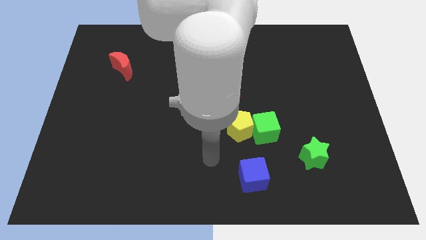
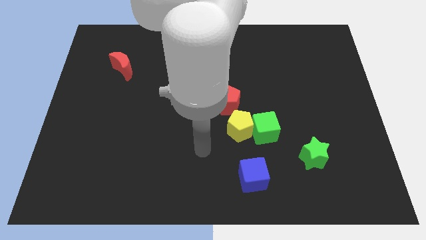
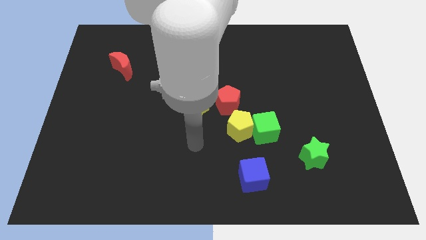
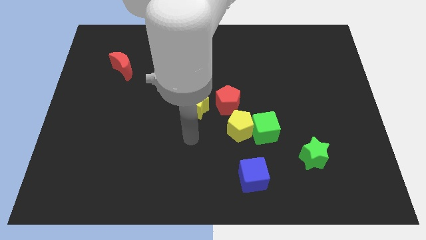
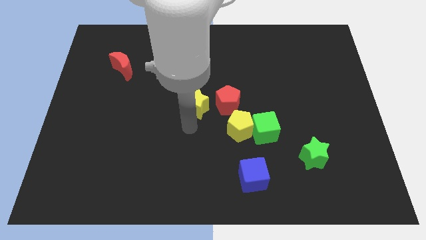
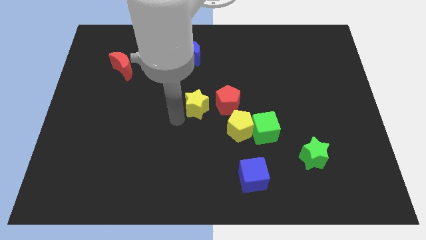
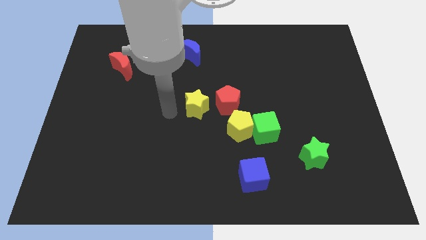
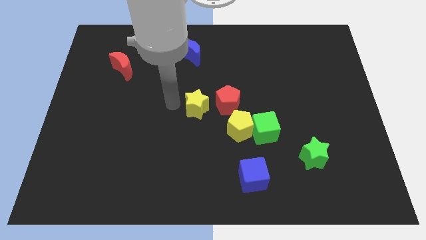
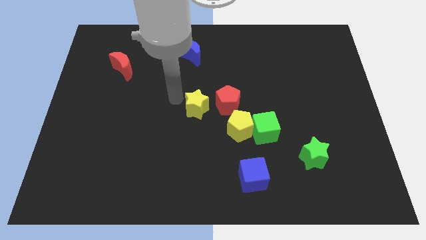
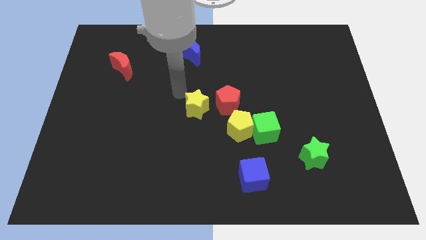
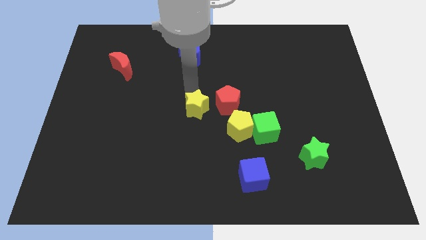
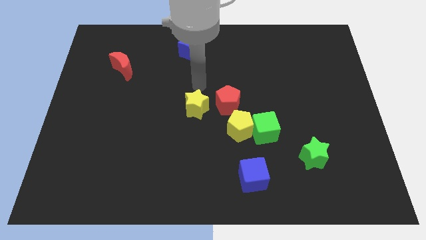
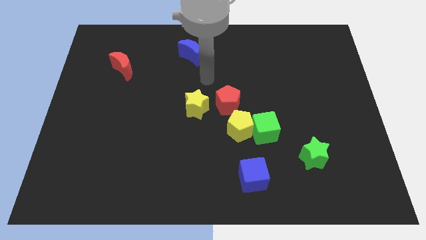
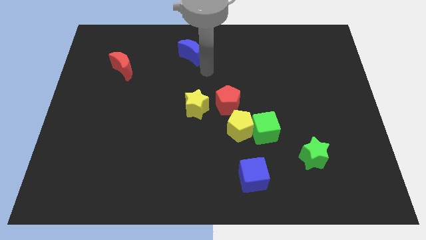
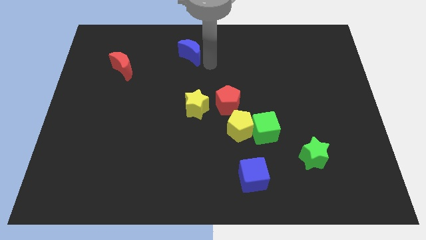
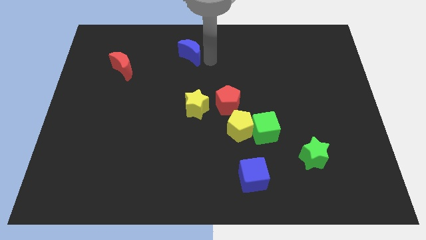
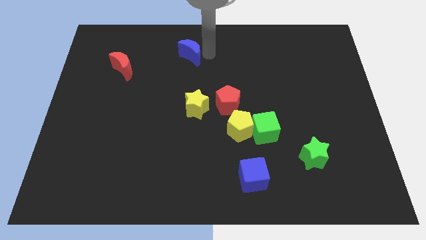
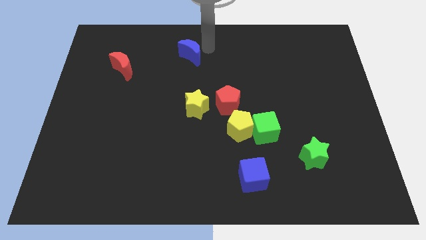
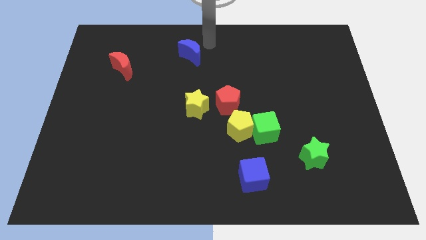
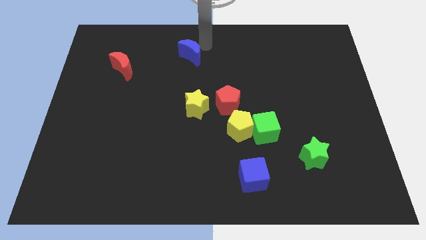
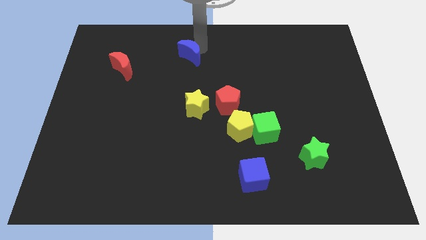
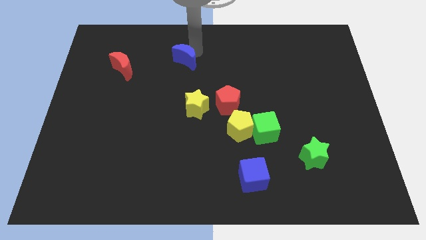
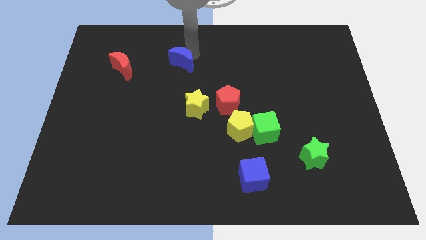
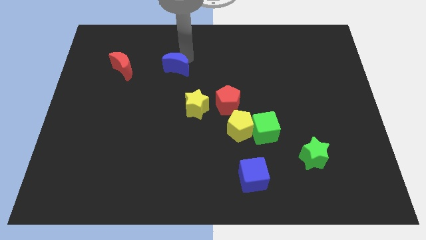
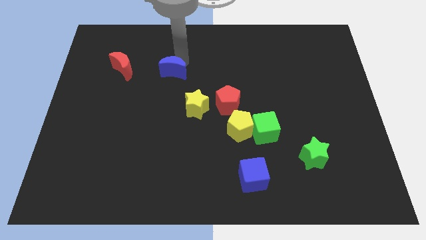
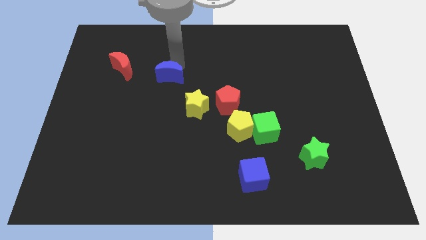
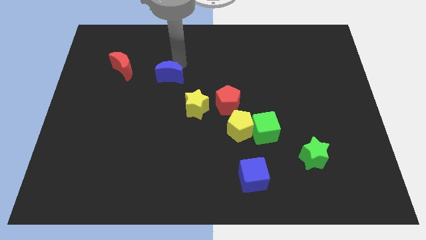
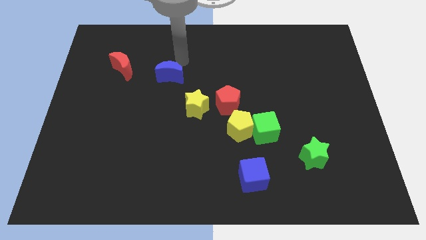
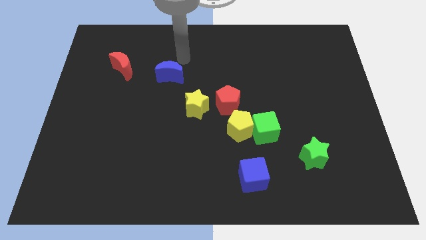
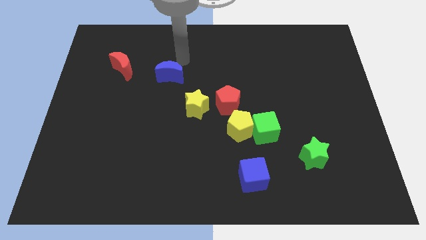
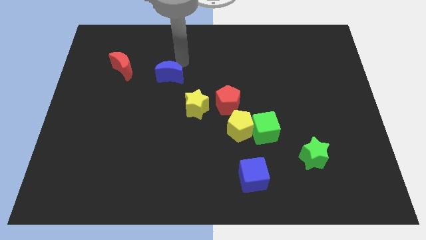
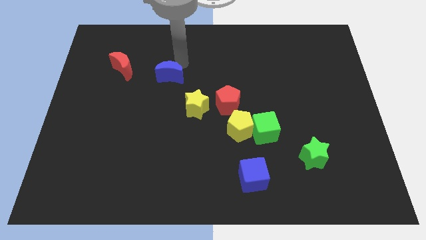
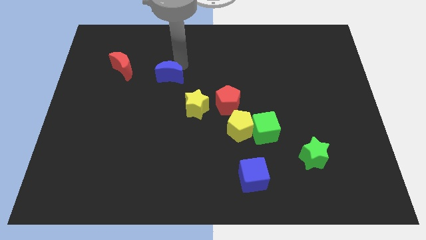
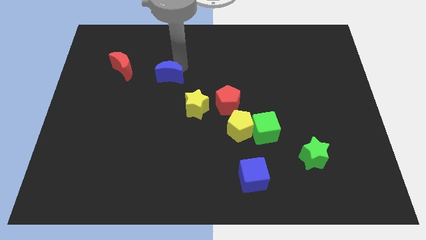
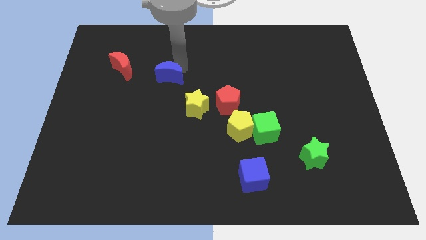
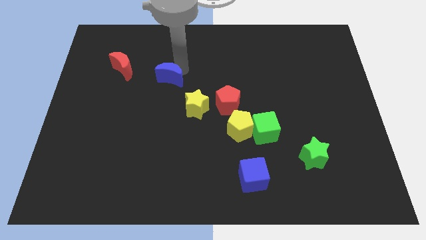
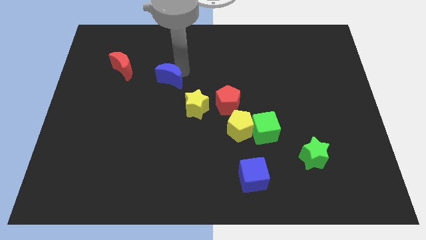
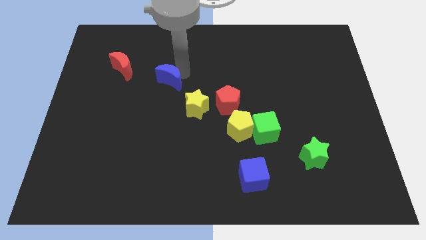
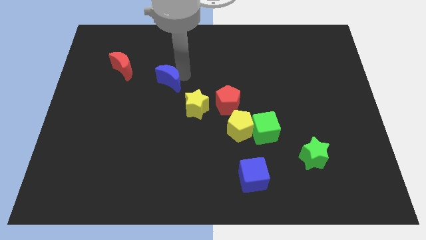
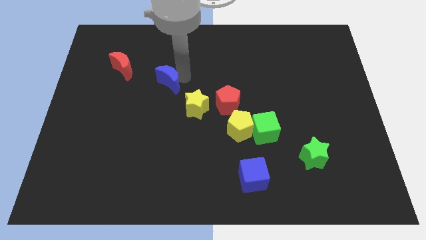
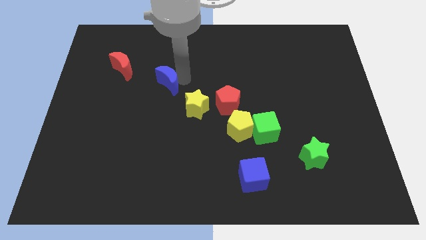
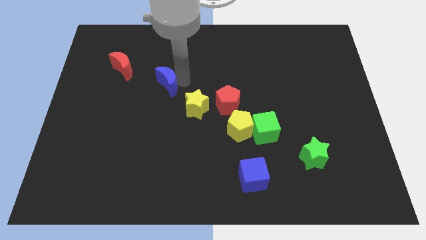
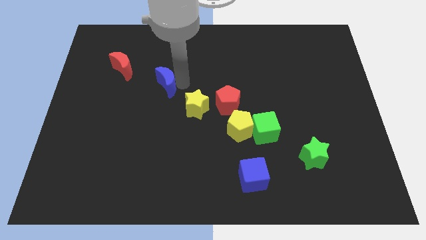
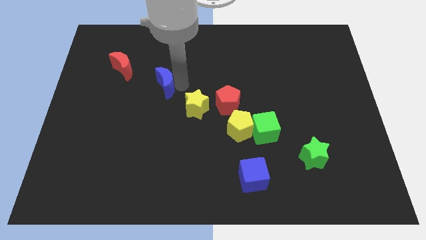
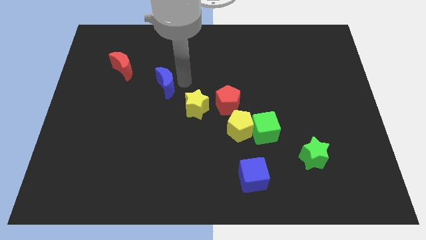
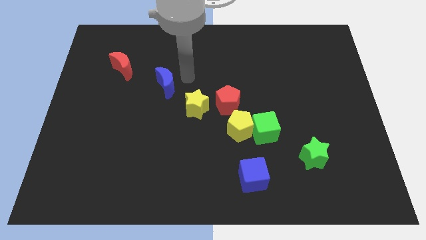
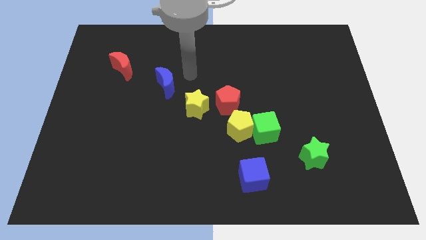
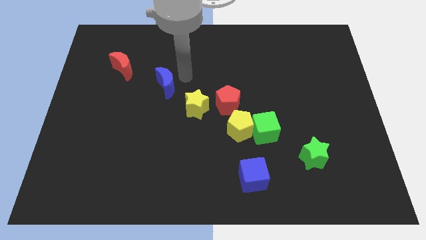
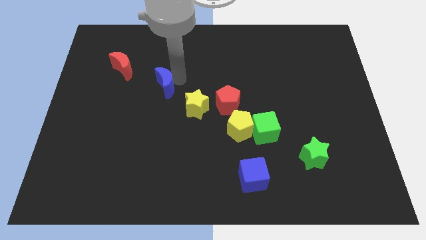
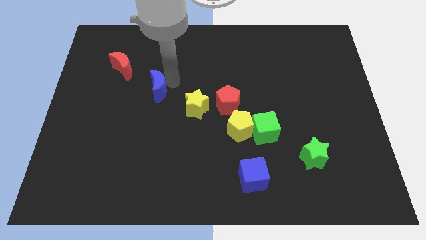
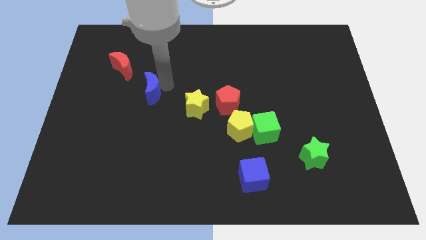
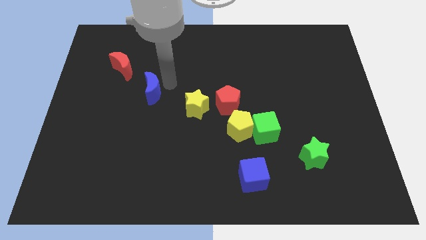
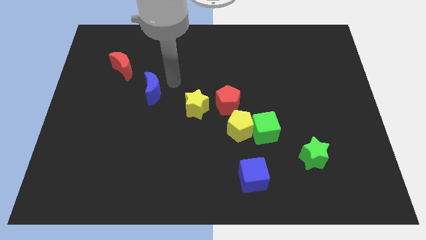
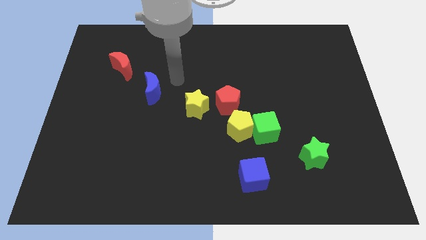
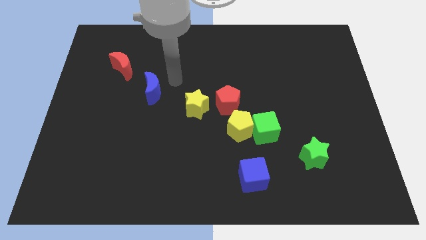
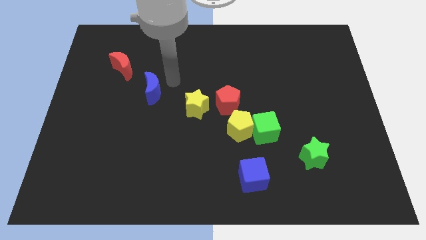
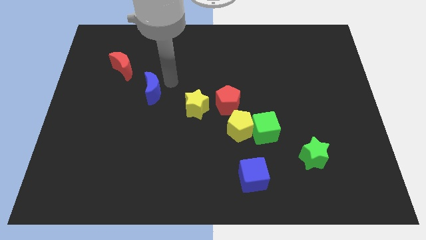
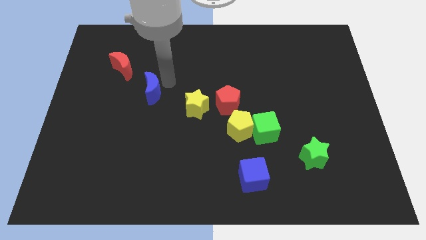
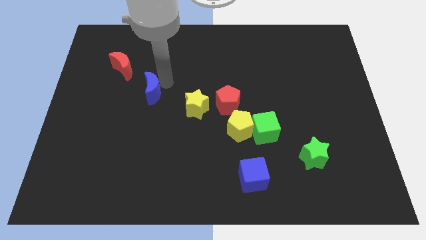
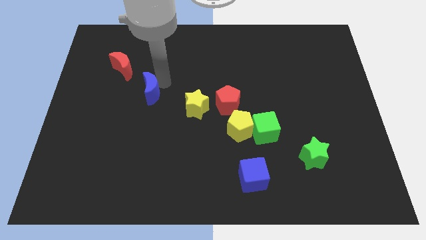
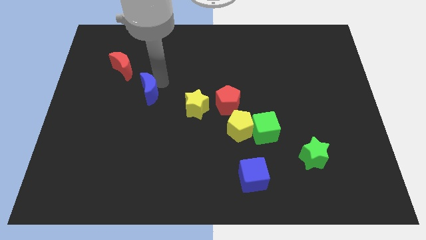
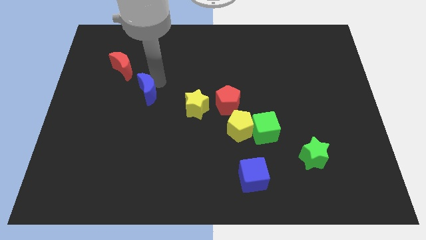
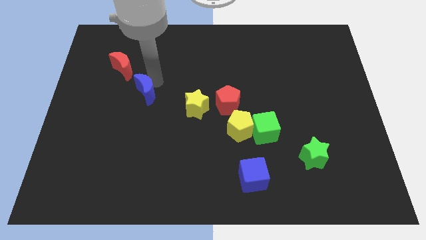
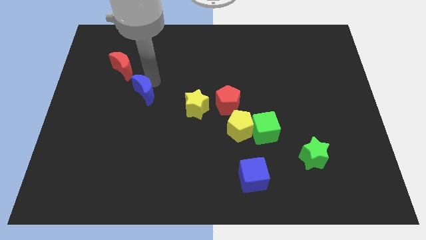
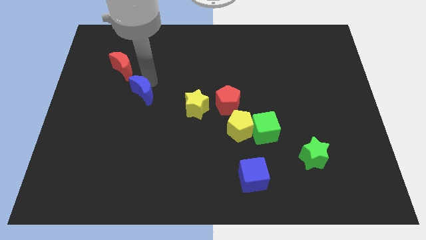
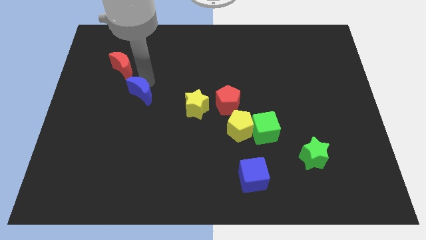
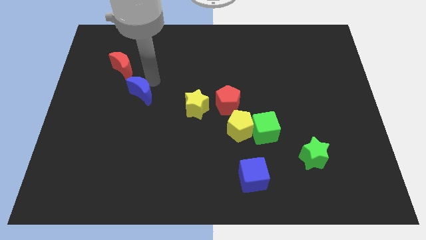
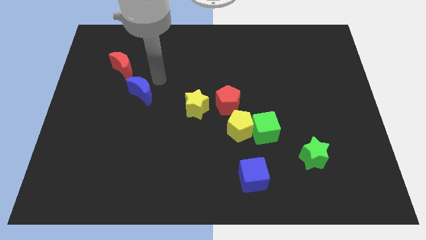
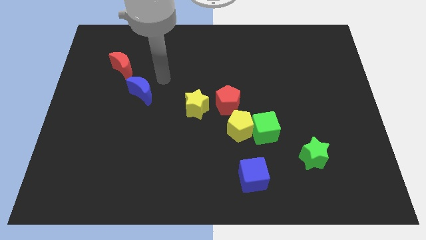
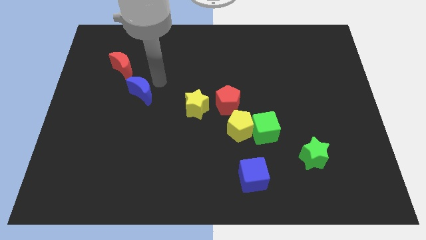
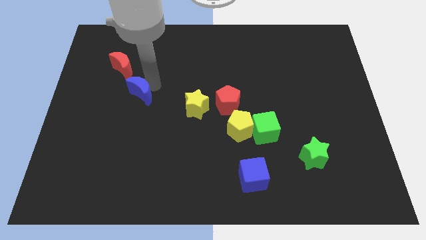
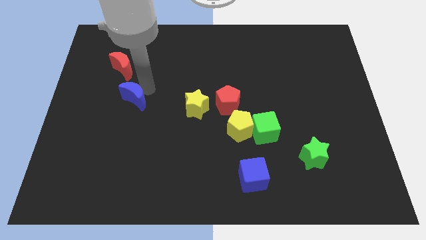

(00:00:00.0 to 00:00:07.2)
slide the blue moon downwards and left diagonally

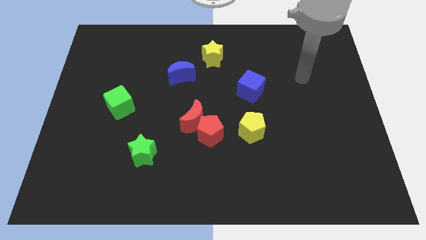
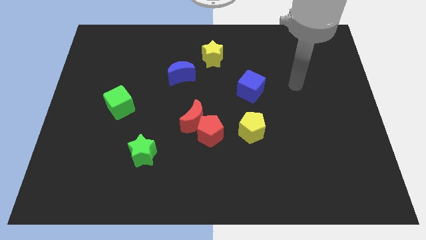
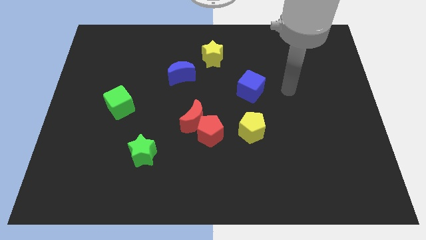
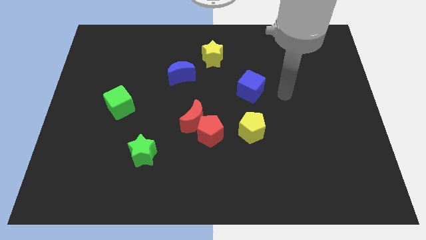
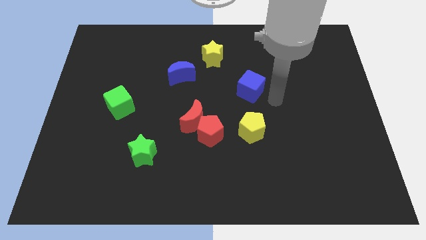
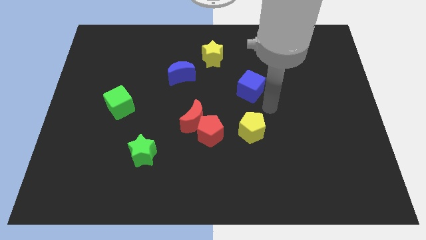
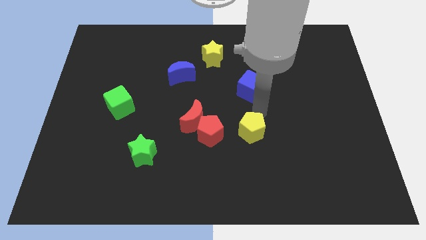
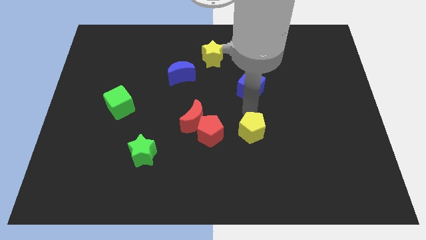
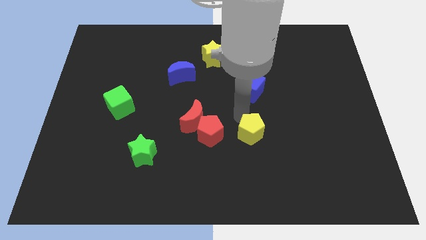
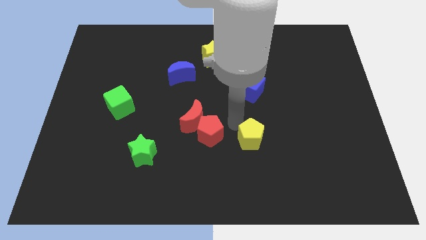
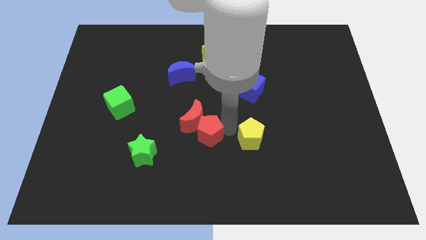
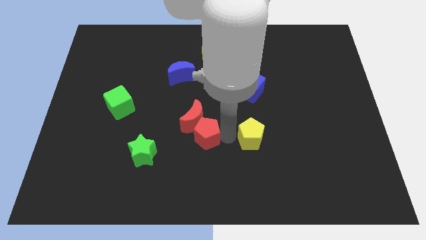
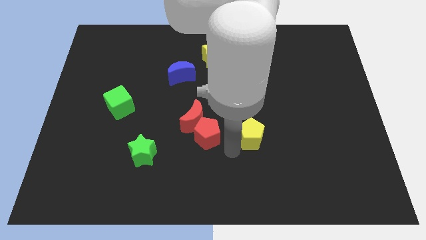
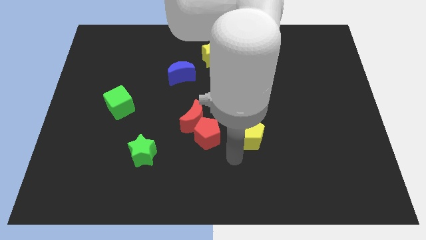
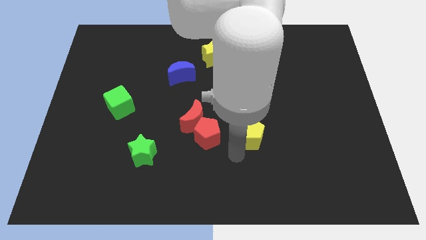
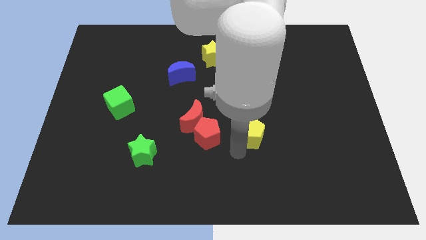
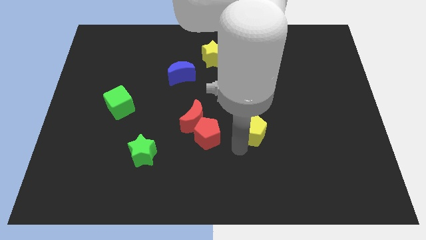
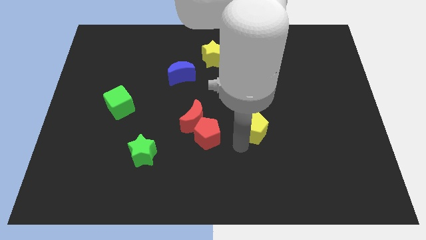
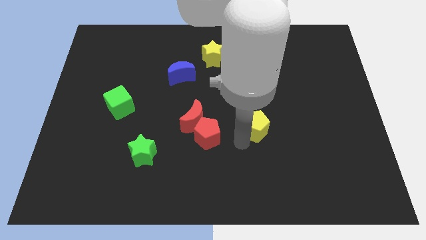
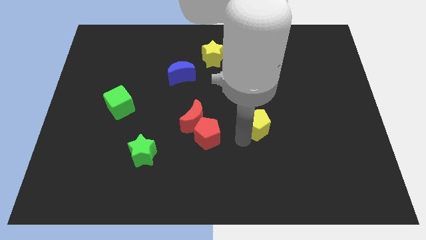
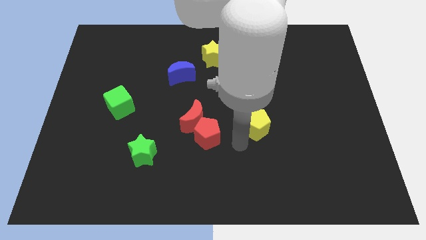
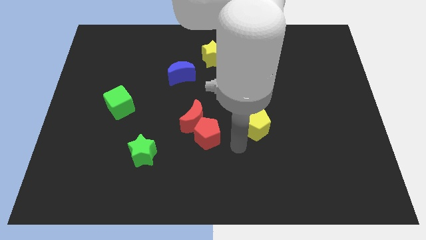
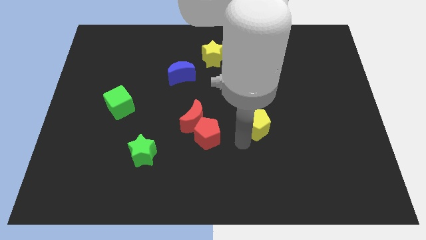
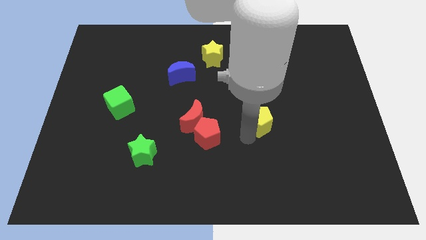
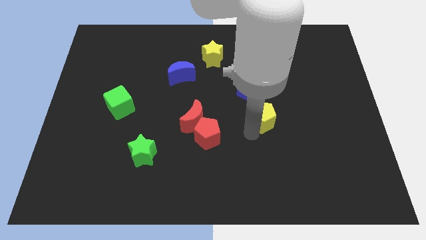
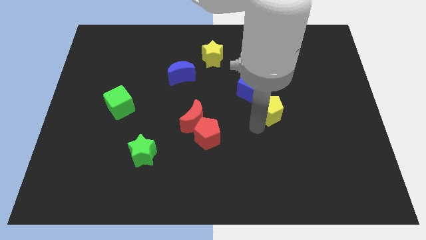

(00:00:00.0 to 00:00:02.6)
slightly slide the yellow pentagon up and to the right diagonally
